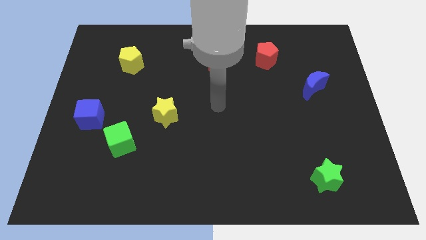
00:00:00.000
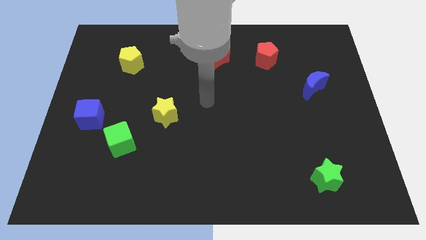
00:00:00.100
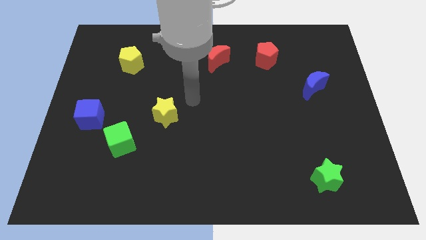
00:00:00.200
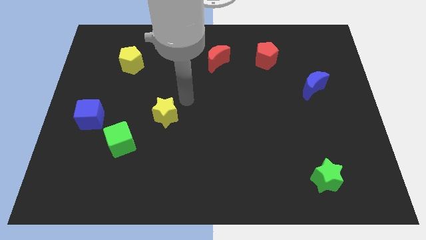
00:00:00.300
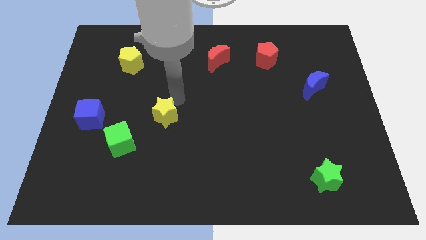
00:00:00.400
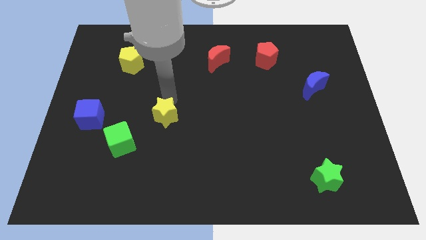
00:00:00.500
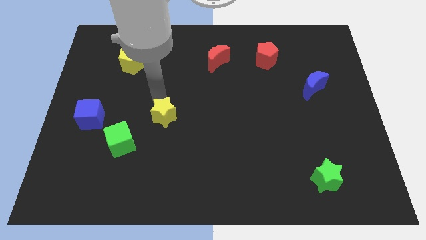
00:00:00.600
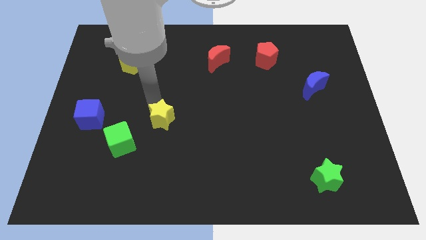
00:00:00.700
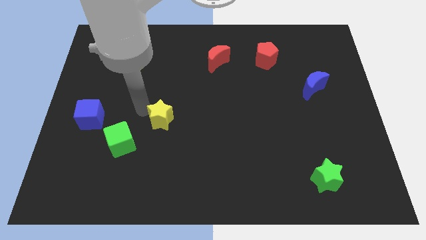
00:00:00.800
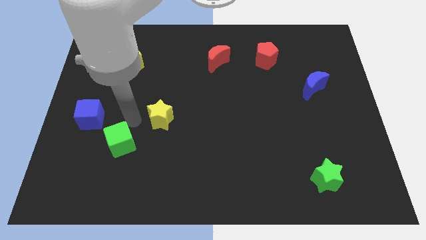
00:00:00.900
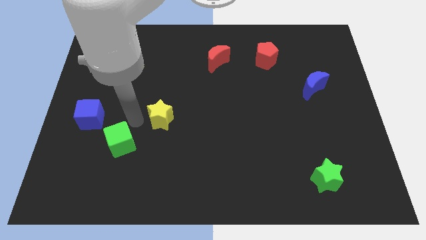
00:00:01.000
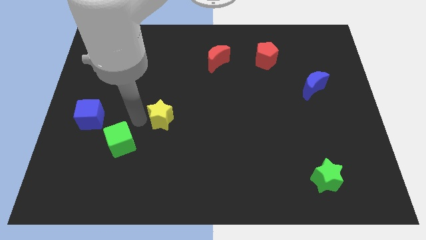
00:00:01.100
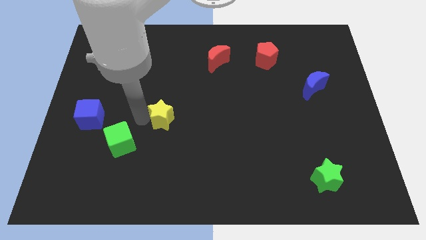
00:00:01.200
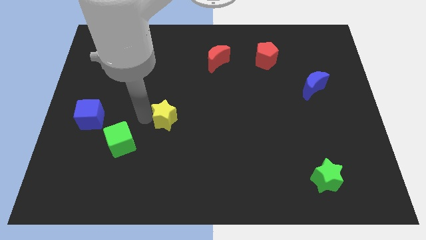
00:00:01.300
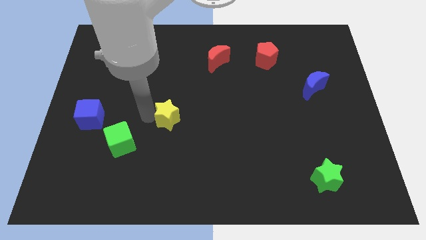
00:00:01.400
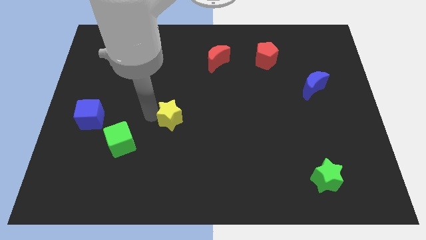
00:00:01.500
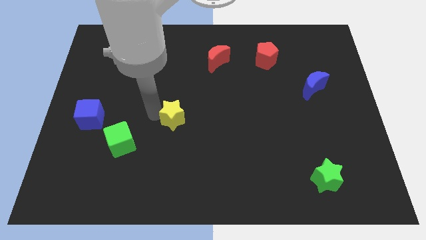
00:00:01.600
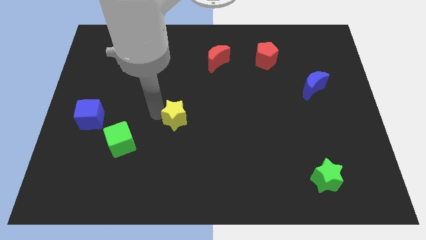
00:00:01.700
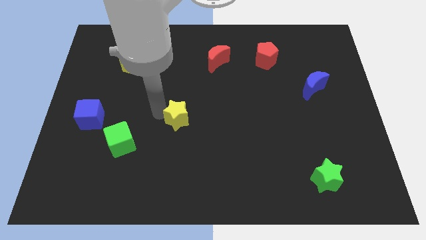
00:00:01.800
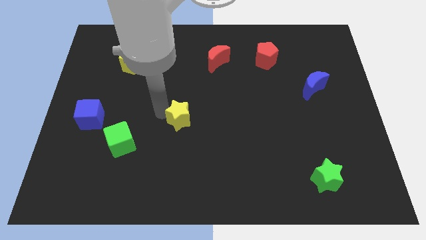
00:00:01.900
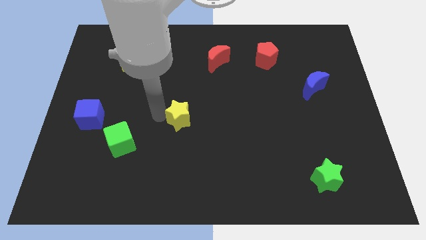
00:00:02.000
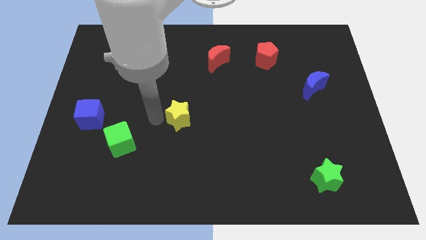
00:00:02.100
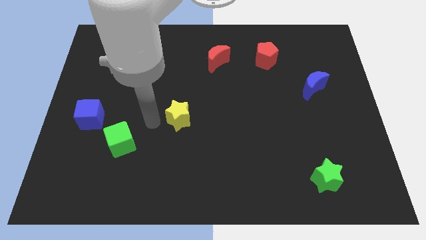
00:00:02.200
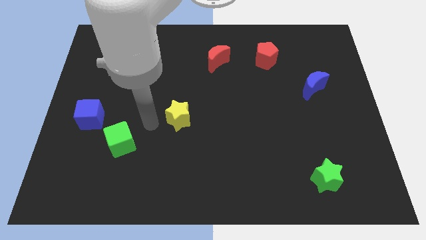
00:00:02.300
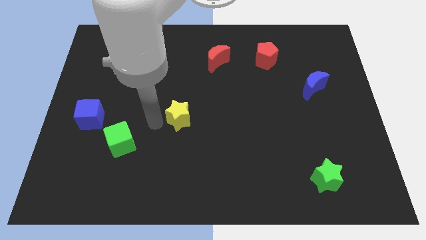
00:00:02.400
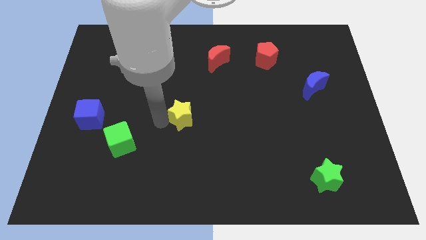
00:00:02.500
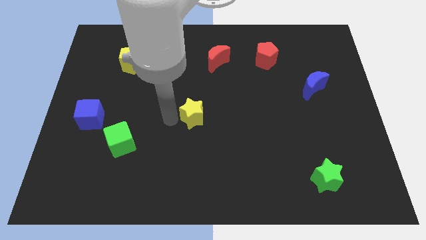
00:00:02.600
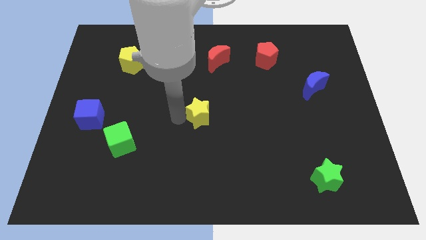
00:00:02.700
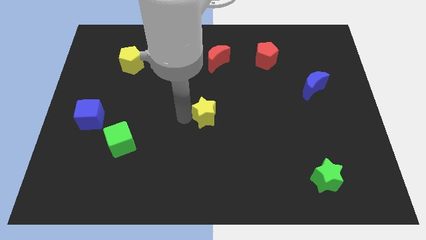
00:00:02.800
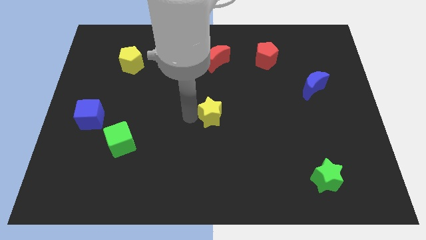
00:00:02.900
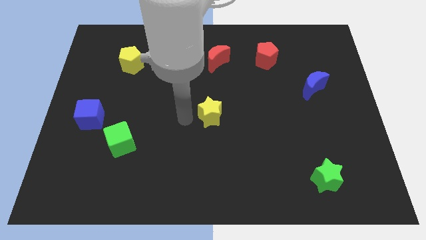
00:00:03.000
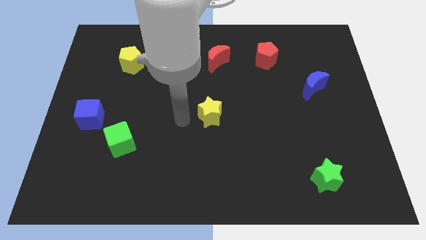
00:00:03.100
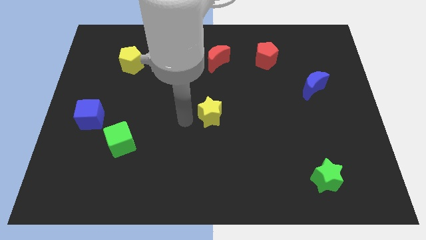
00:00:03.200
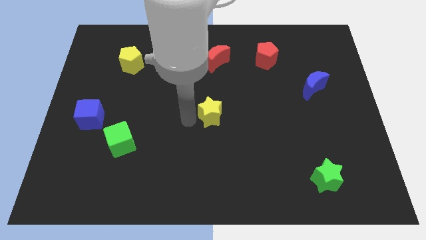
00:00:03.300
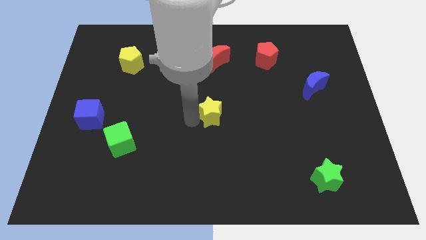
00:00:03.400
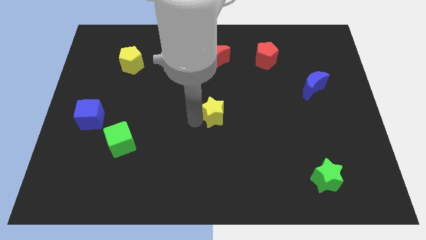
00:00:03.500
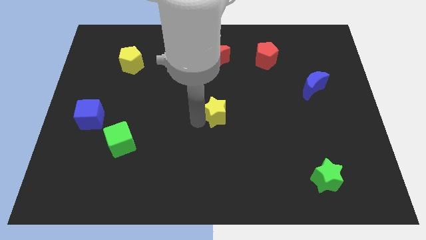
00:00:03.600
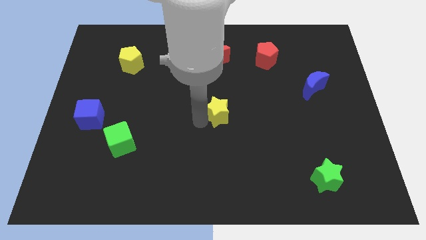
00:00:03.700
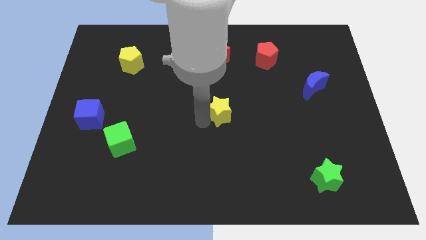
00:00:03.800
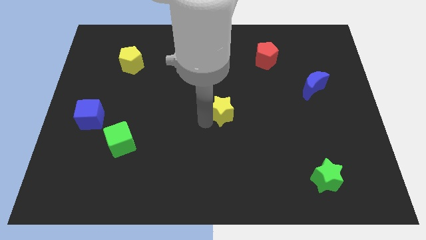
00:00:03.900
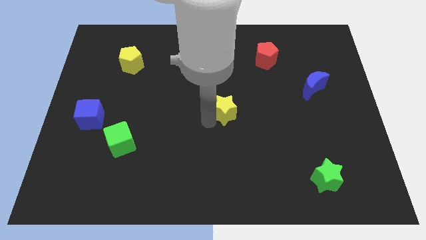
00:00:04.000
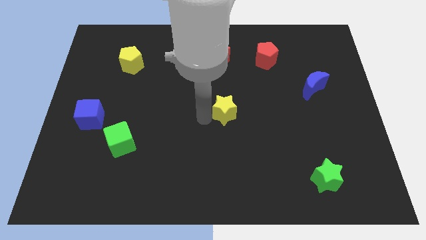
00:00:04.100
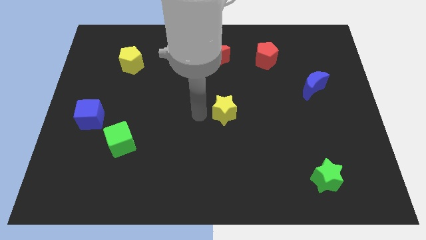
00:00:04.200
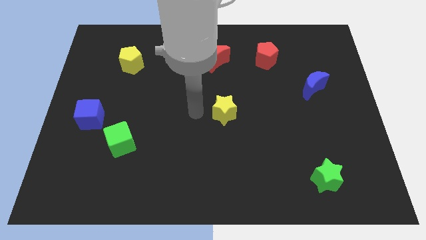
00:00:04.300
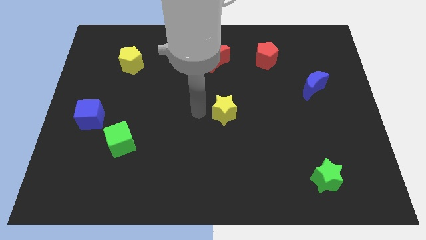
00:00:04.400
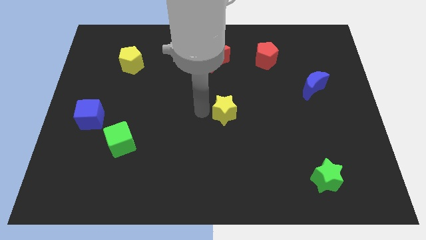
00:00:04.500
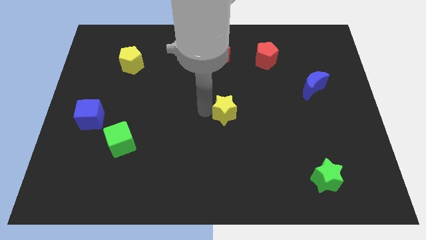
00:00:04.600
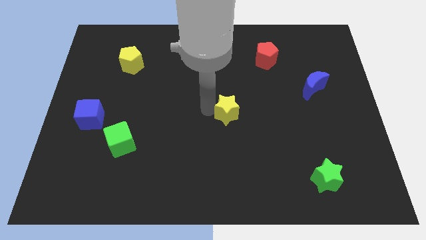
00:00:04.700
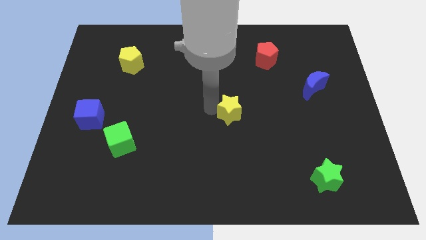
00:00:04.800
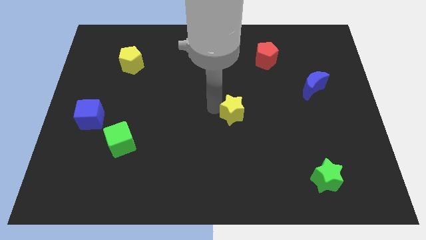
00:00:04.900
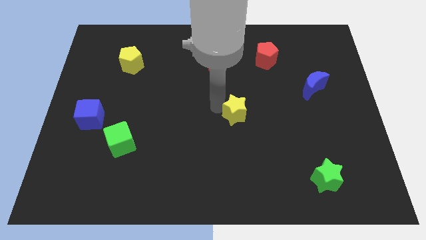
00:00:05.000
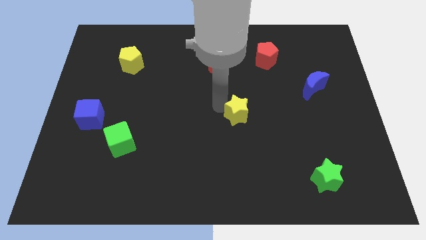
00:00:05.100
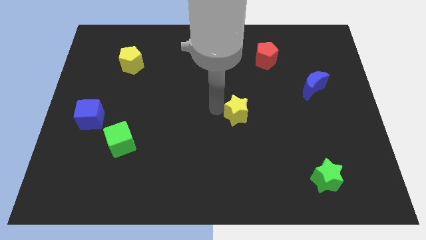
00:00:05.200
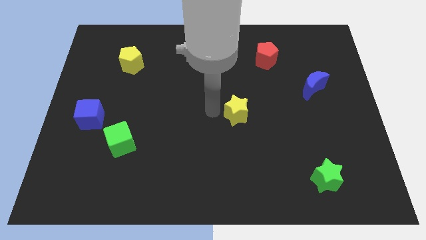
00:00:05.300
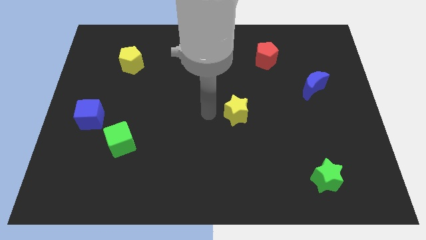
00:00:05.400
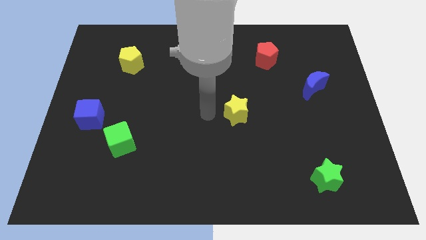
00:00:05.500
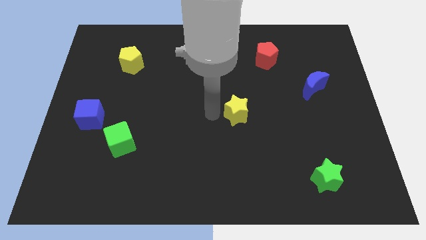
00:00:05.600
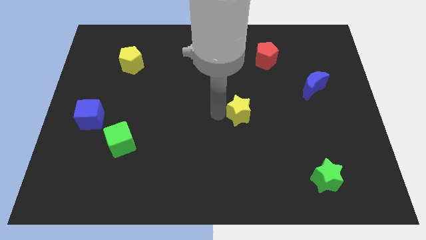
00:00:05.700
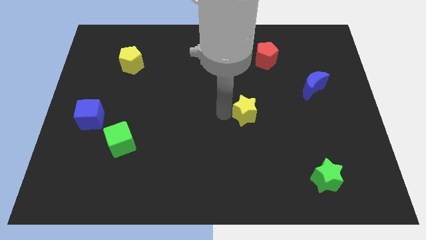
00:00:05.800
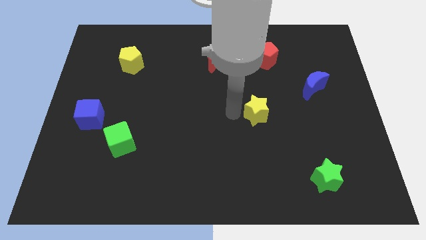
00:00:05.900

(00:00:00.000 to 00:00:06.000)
move the yellow star to the right

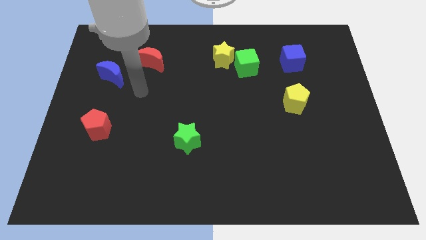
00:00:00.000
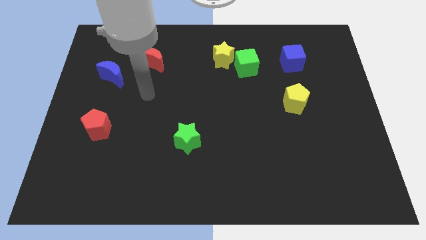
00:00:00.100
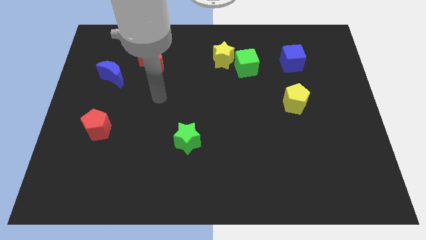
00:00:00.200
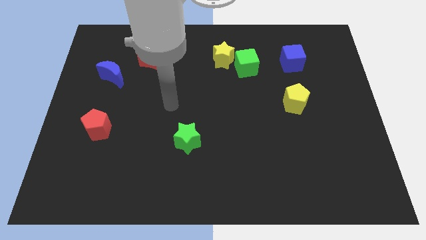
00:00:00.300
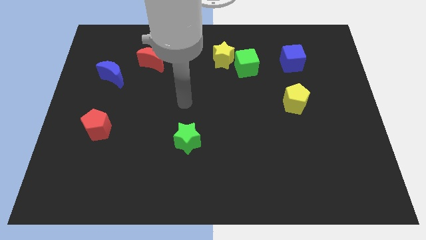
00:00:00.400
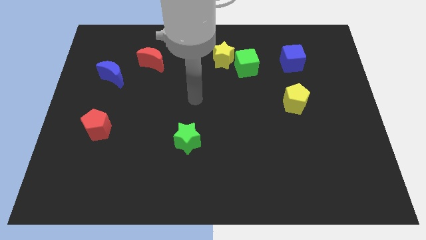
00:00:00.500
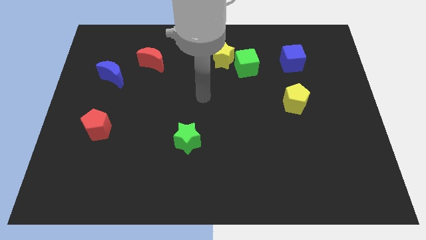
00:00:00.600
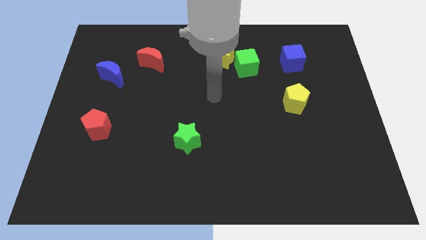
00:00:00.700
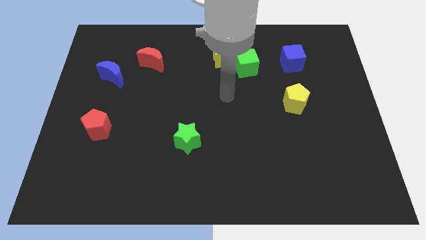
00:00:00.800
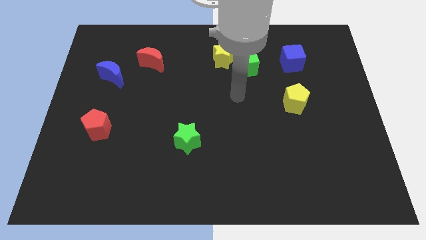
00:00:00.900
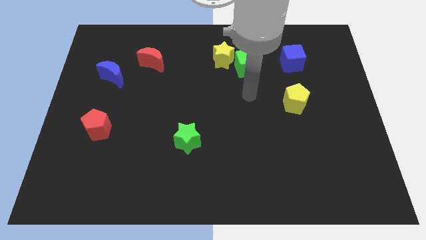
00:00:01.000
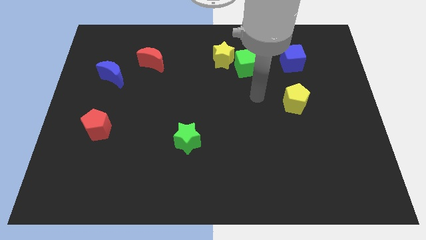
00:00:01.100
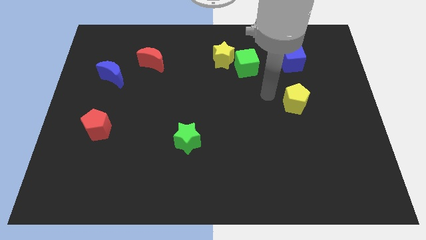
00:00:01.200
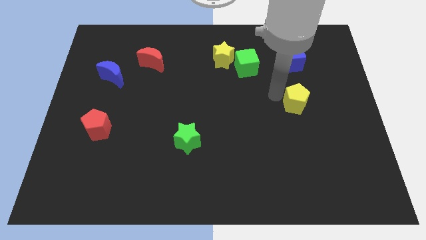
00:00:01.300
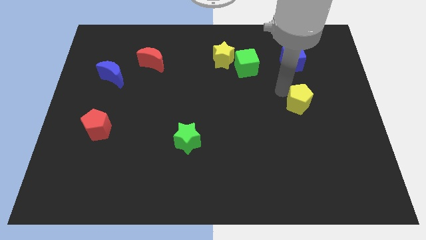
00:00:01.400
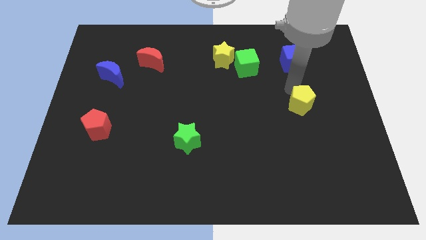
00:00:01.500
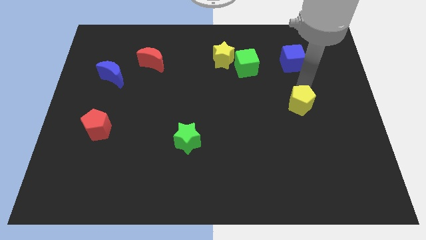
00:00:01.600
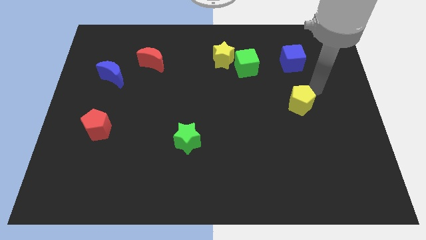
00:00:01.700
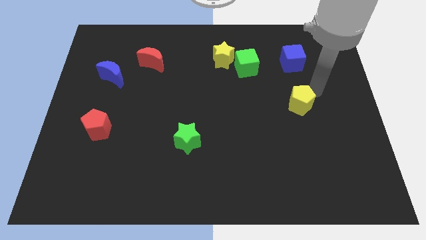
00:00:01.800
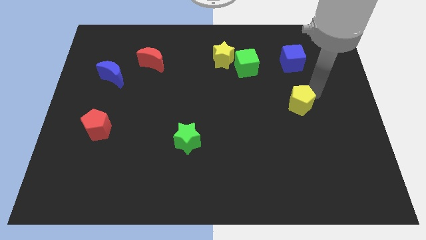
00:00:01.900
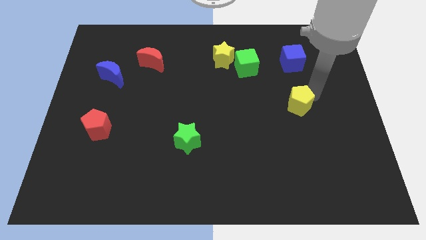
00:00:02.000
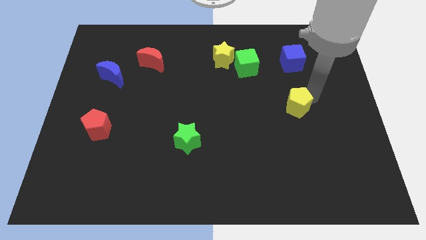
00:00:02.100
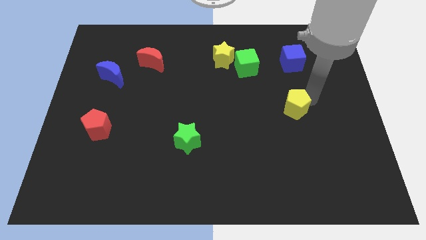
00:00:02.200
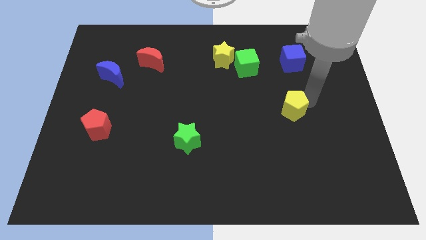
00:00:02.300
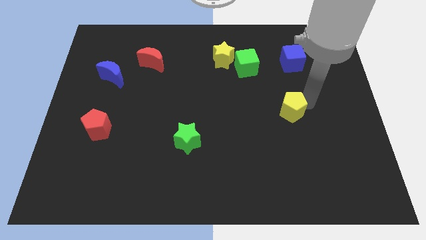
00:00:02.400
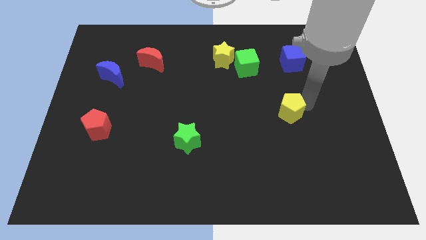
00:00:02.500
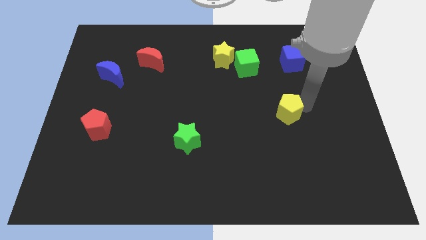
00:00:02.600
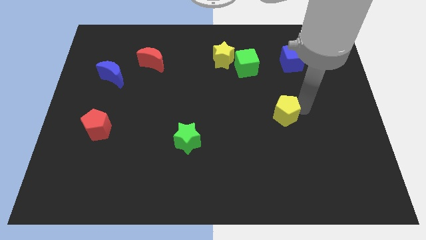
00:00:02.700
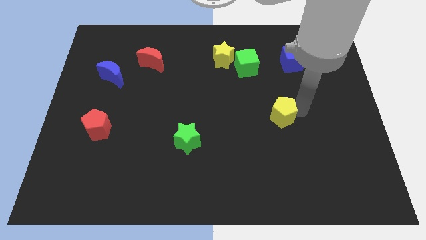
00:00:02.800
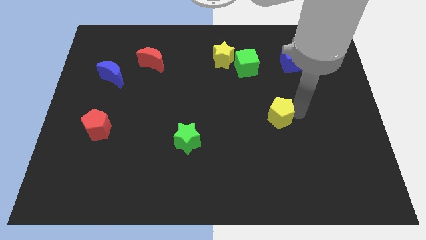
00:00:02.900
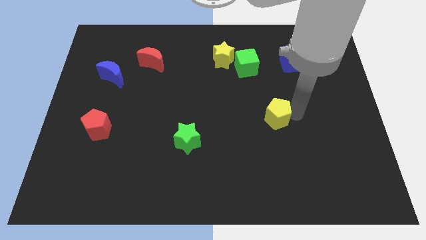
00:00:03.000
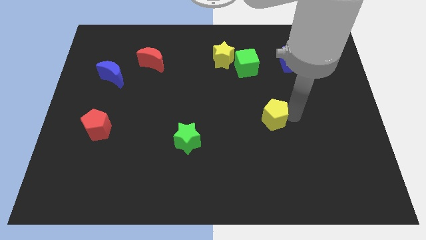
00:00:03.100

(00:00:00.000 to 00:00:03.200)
push the yellow pentagon a little diagonally down and to the left
